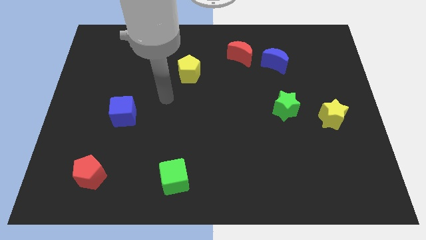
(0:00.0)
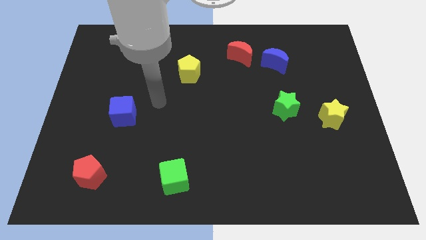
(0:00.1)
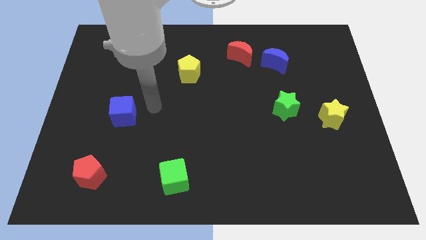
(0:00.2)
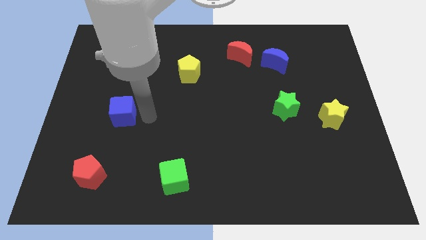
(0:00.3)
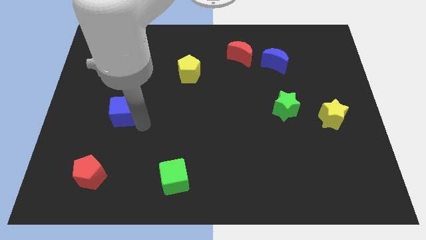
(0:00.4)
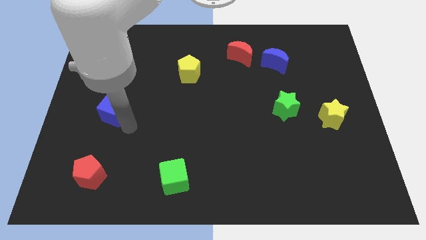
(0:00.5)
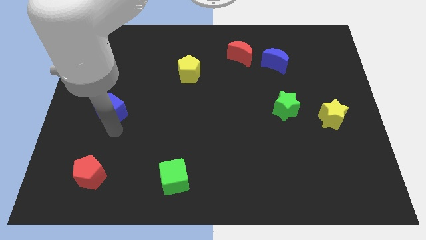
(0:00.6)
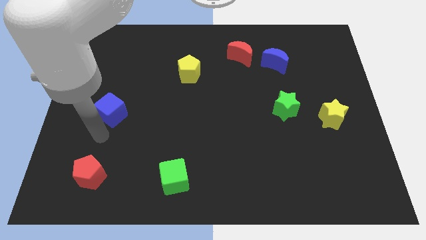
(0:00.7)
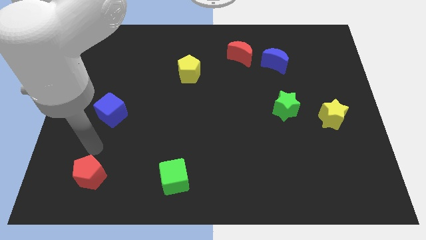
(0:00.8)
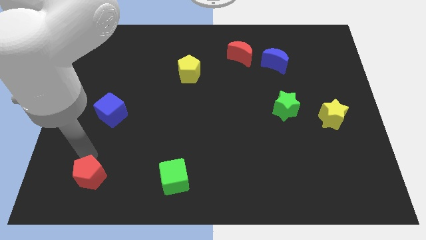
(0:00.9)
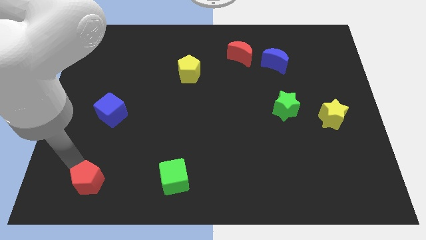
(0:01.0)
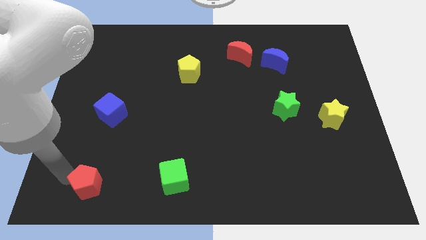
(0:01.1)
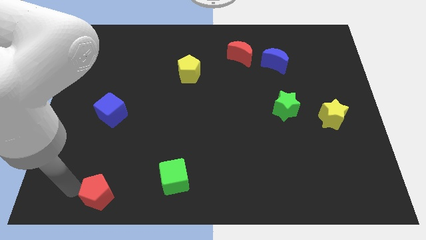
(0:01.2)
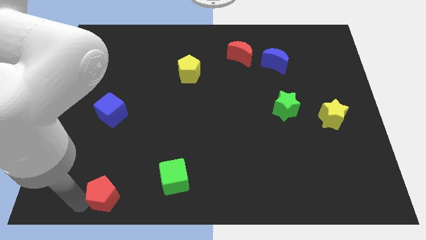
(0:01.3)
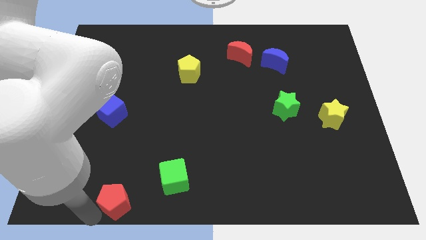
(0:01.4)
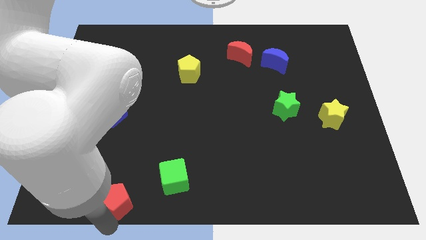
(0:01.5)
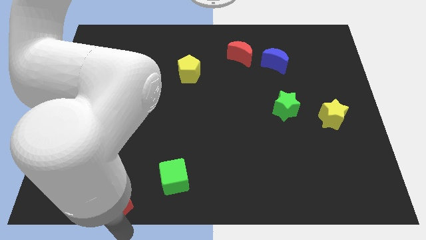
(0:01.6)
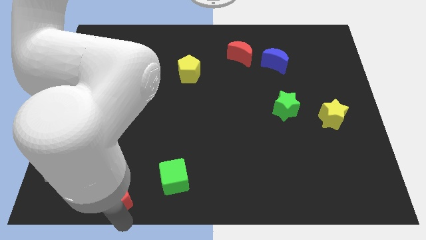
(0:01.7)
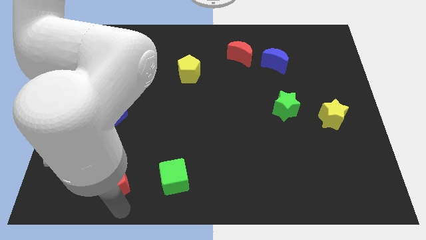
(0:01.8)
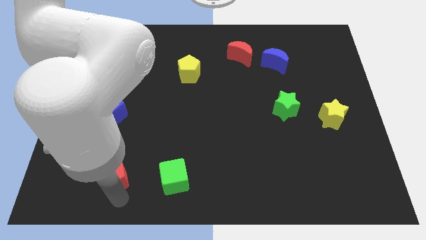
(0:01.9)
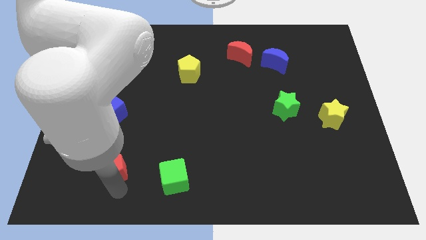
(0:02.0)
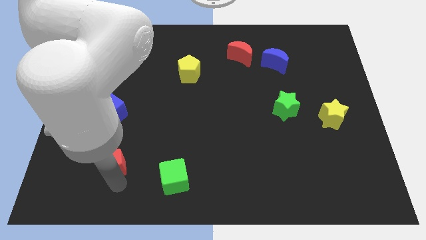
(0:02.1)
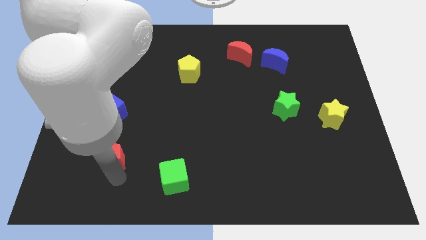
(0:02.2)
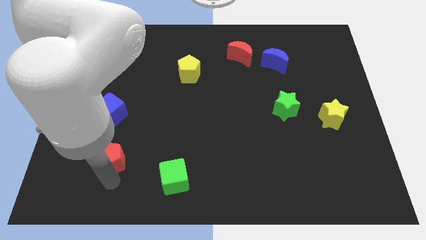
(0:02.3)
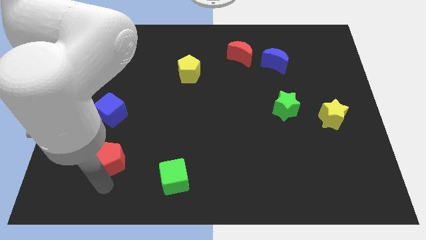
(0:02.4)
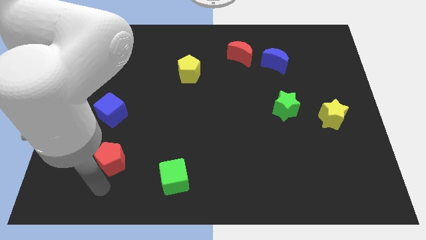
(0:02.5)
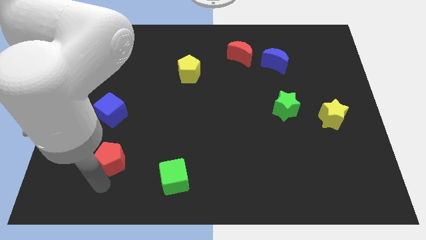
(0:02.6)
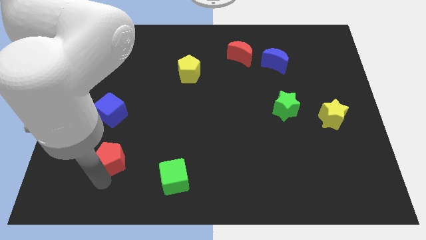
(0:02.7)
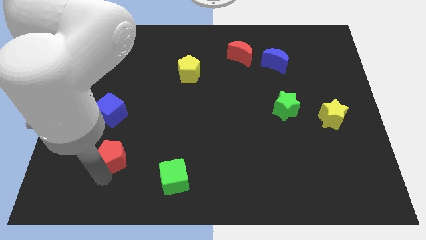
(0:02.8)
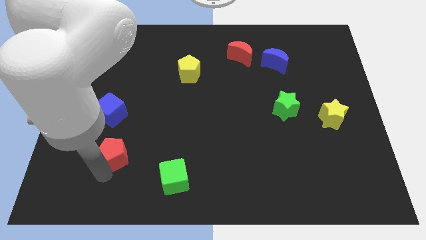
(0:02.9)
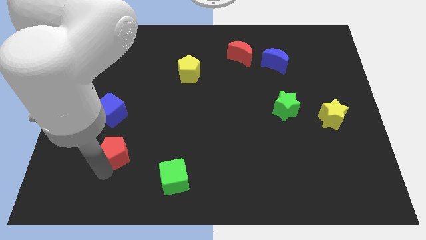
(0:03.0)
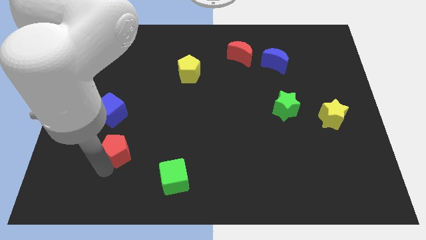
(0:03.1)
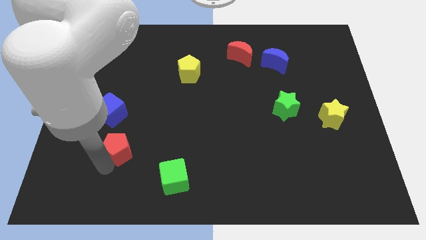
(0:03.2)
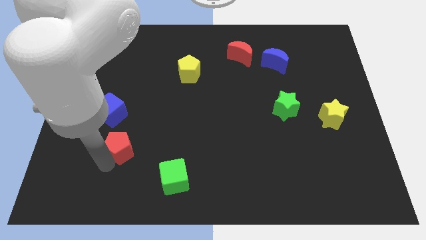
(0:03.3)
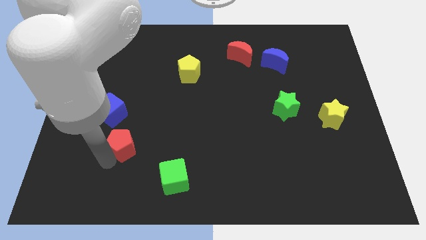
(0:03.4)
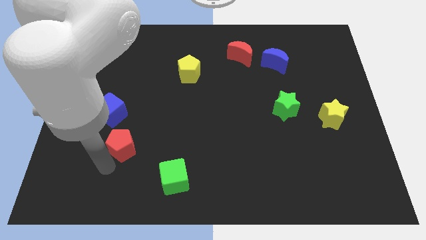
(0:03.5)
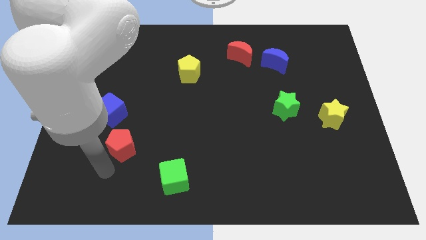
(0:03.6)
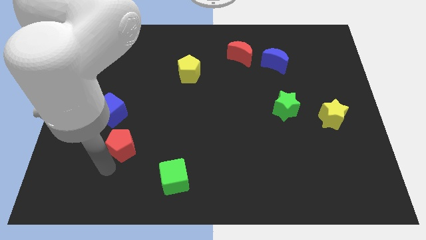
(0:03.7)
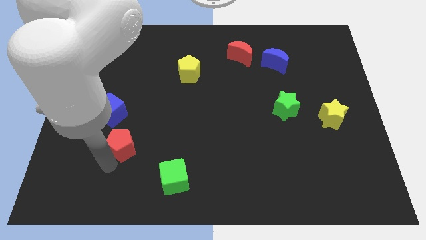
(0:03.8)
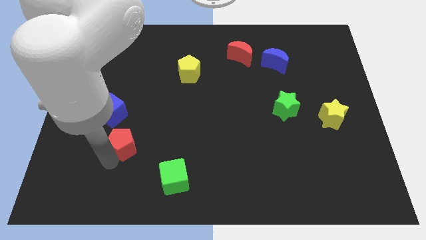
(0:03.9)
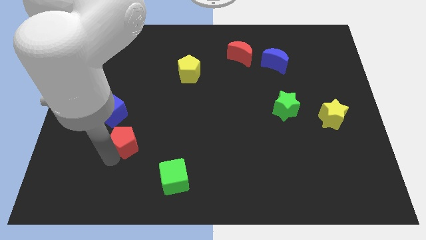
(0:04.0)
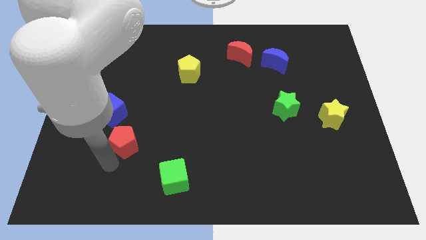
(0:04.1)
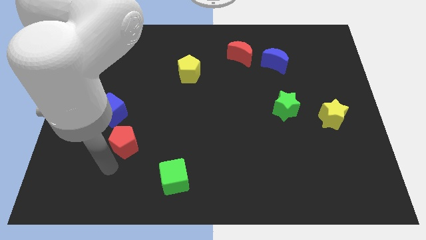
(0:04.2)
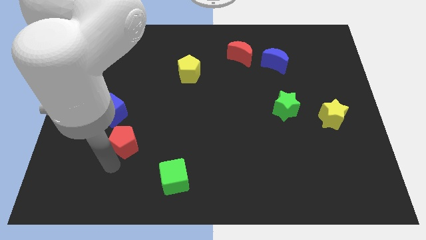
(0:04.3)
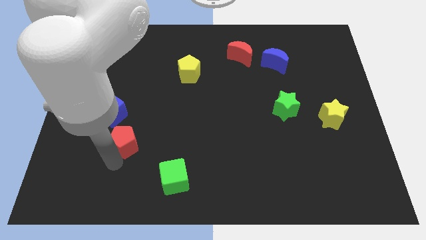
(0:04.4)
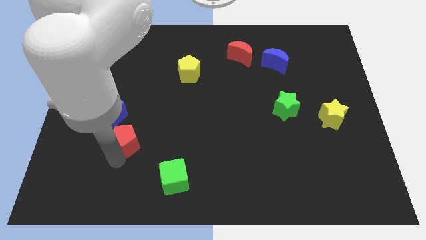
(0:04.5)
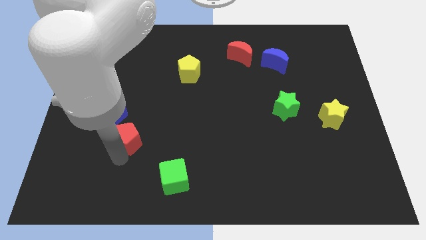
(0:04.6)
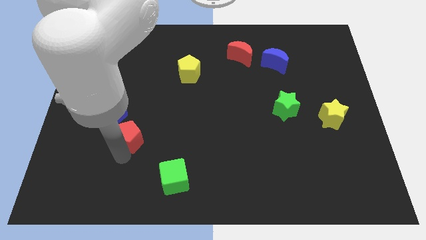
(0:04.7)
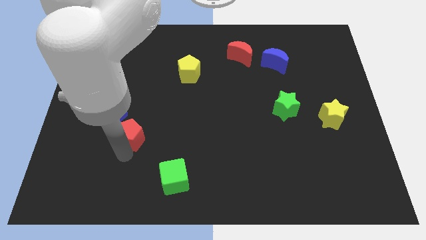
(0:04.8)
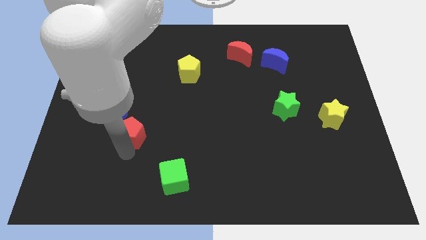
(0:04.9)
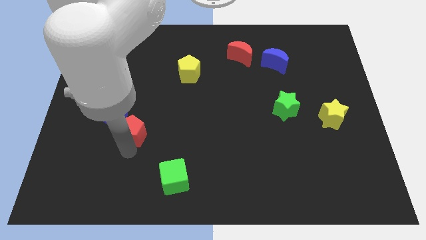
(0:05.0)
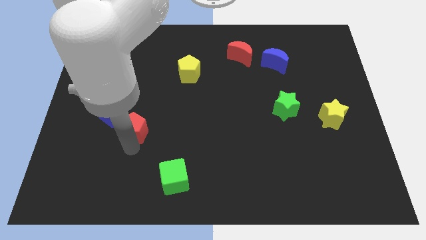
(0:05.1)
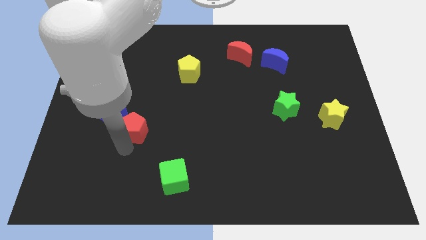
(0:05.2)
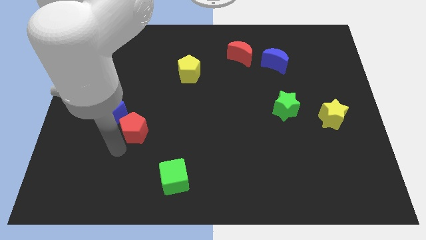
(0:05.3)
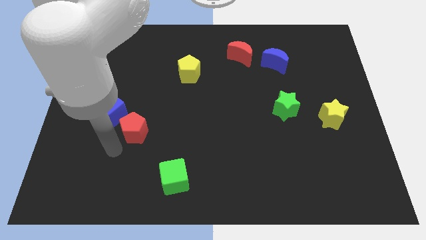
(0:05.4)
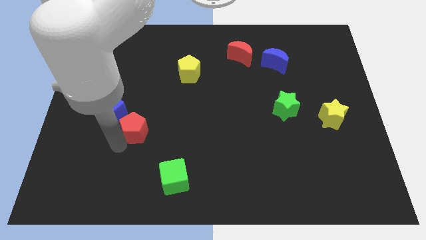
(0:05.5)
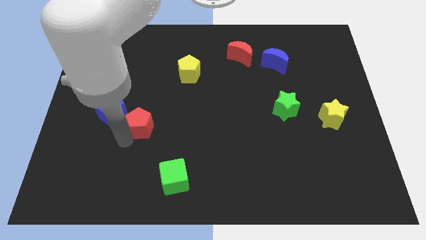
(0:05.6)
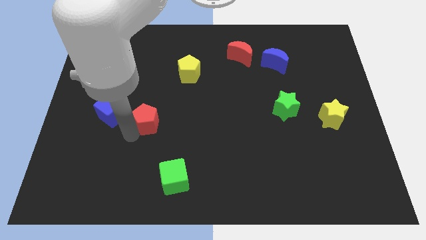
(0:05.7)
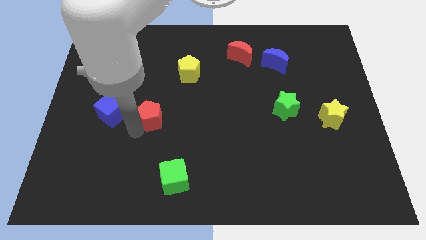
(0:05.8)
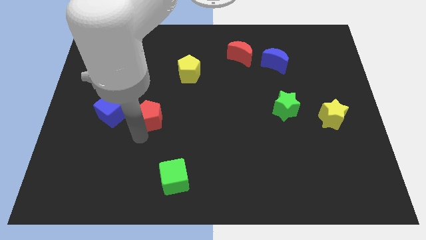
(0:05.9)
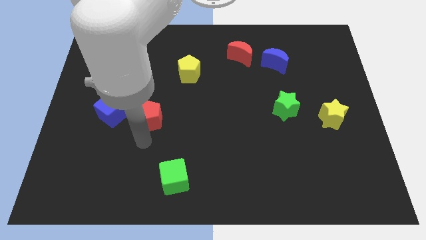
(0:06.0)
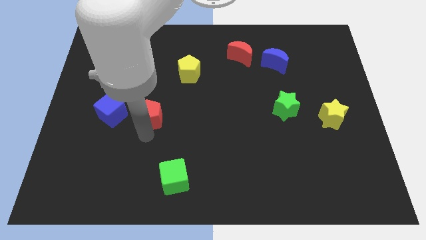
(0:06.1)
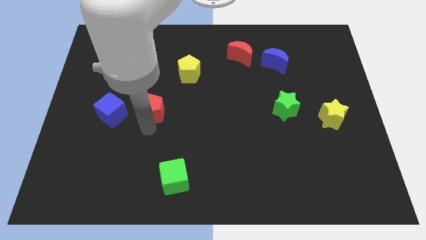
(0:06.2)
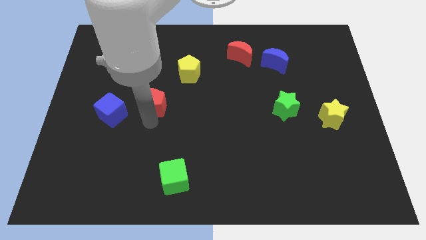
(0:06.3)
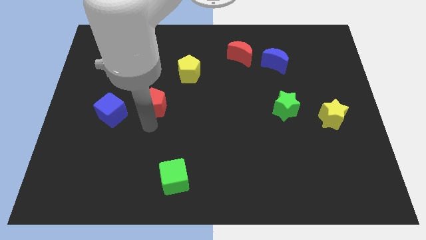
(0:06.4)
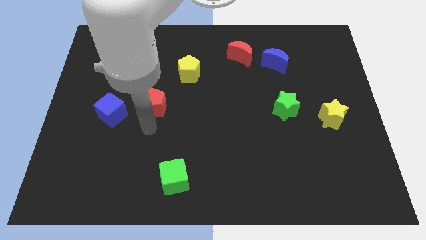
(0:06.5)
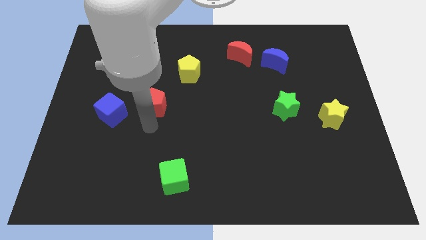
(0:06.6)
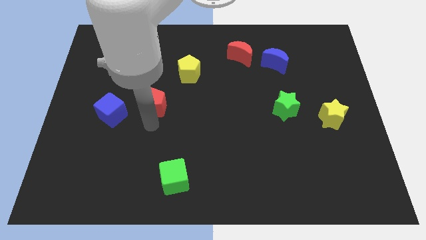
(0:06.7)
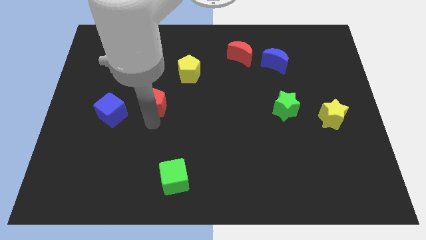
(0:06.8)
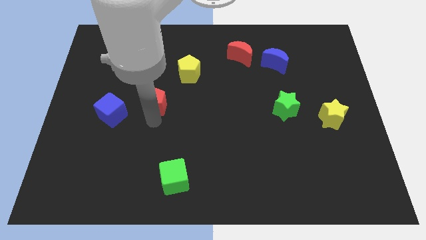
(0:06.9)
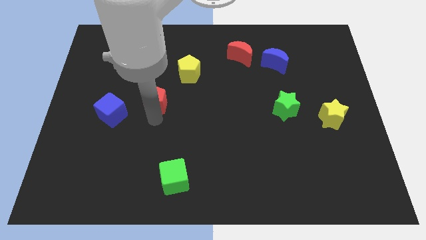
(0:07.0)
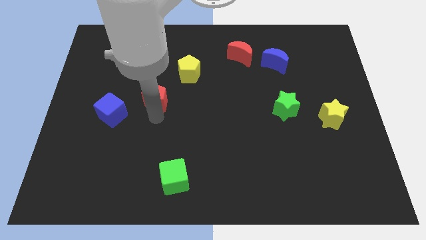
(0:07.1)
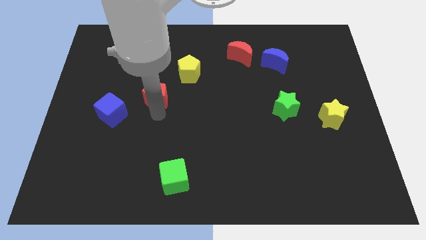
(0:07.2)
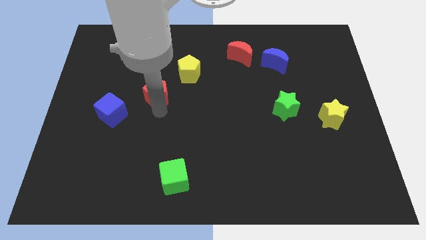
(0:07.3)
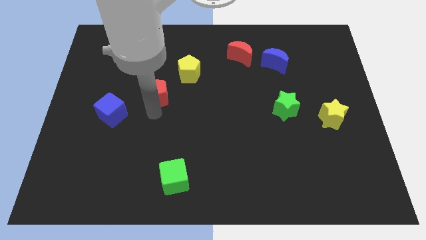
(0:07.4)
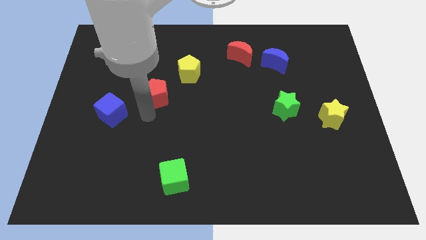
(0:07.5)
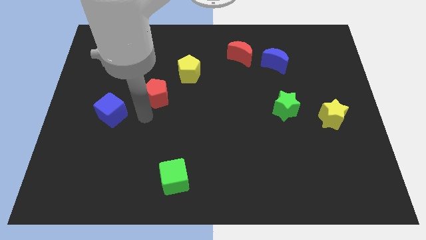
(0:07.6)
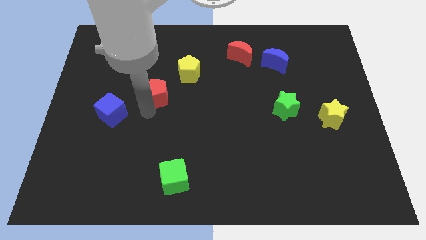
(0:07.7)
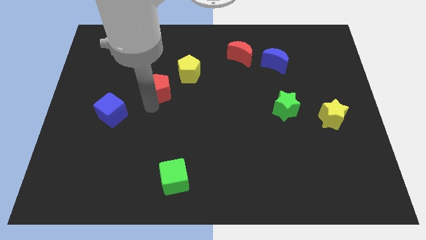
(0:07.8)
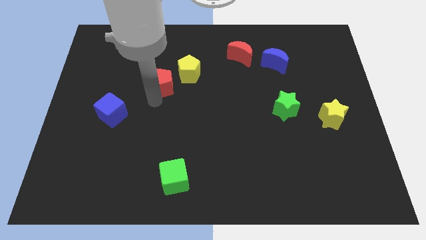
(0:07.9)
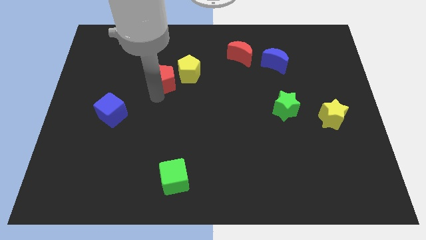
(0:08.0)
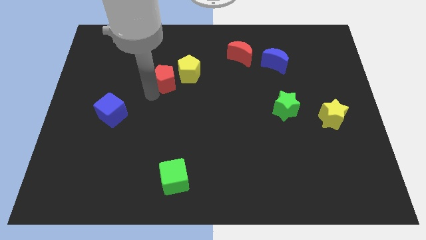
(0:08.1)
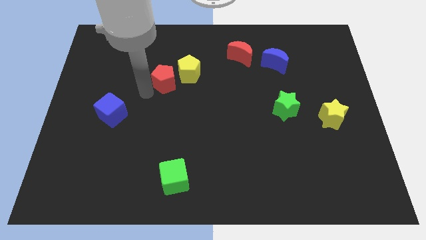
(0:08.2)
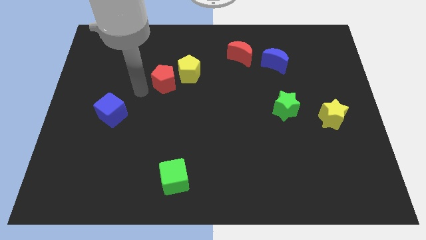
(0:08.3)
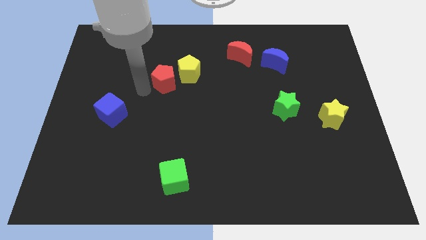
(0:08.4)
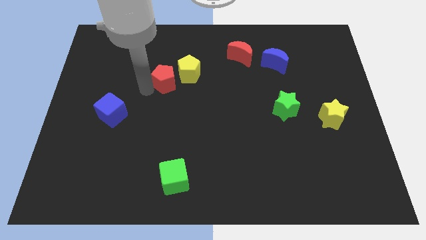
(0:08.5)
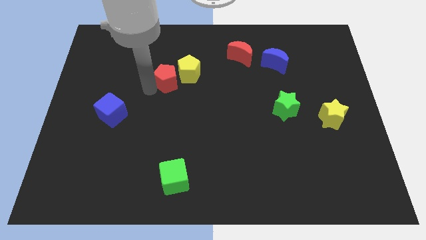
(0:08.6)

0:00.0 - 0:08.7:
move the red pentagon close to the yellow pentagon
